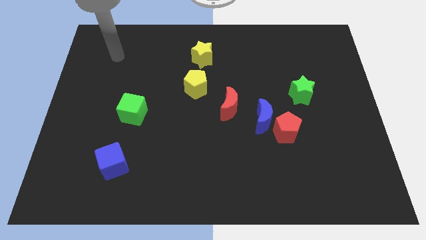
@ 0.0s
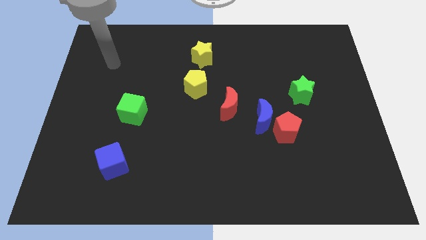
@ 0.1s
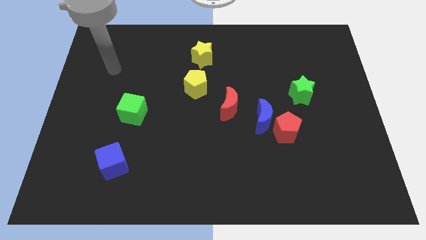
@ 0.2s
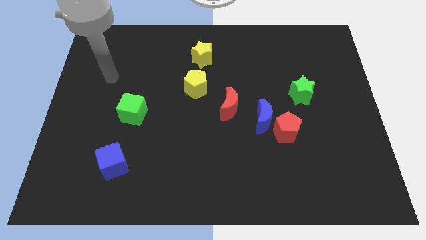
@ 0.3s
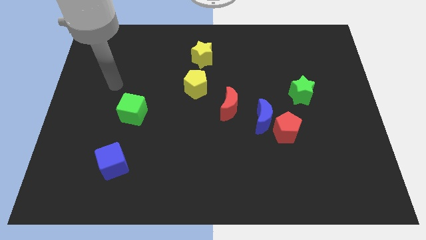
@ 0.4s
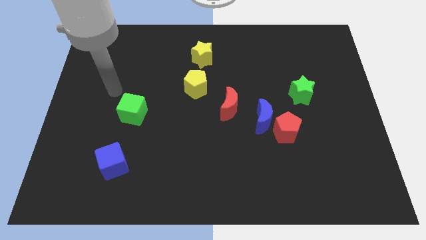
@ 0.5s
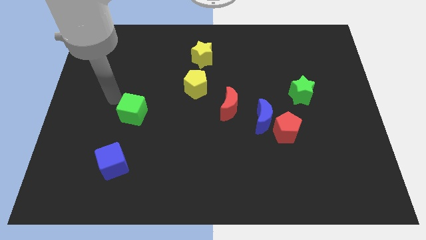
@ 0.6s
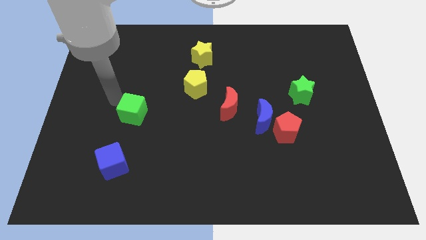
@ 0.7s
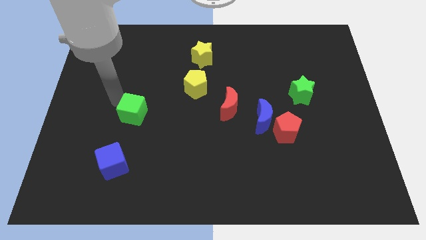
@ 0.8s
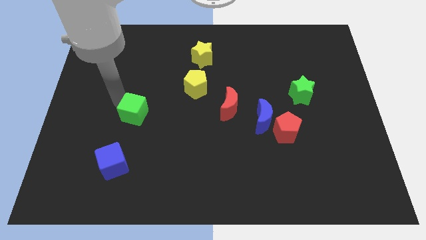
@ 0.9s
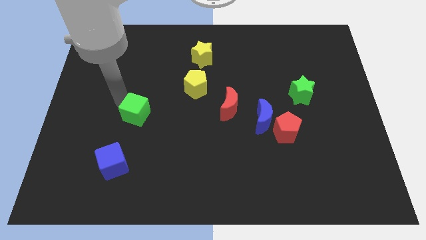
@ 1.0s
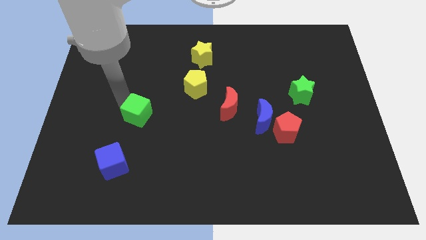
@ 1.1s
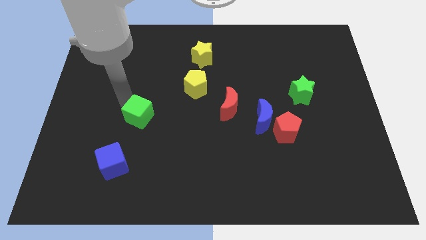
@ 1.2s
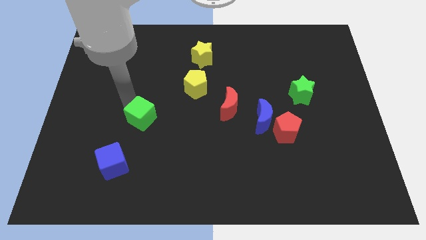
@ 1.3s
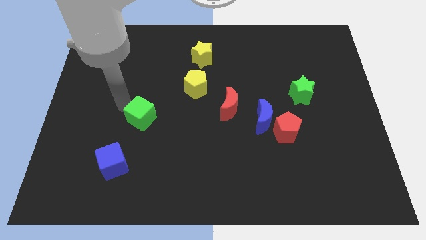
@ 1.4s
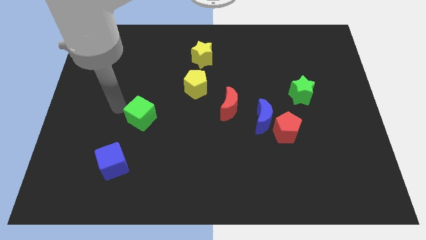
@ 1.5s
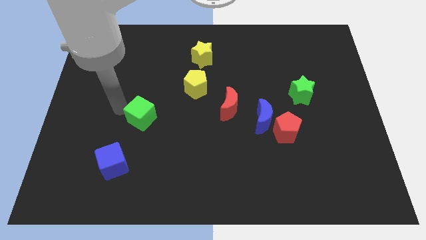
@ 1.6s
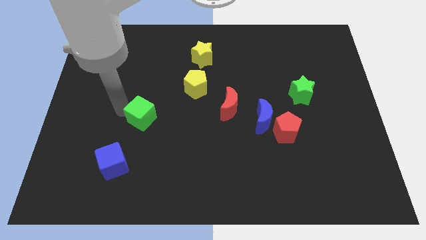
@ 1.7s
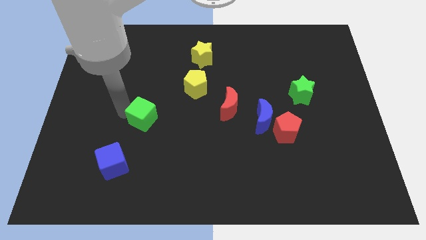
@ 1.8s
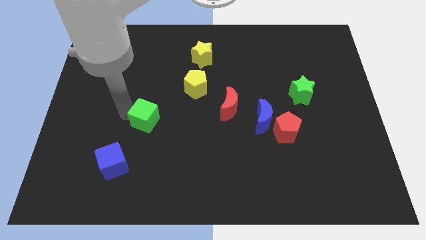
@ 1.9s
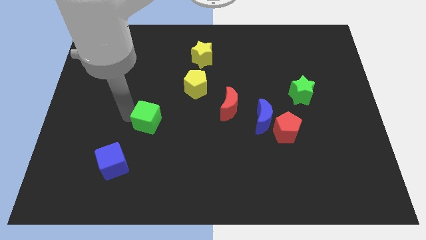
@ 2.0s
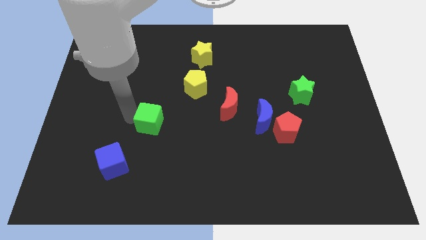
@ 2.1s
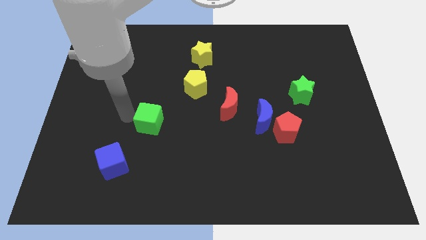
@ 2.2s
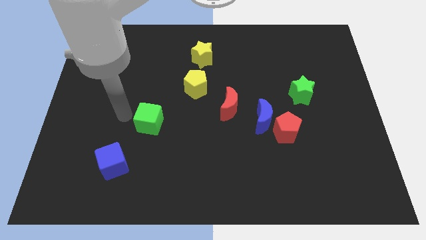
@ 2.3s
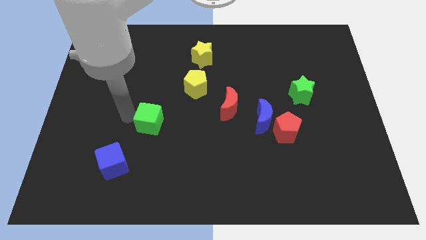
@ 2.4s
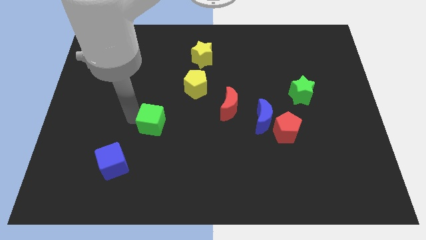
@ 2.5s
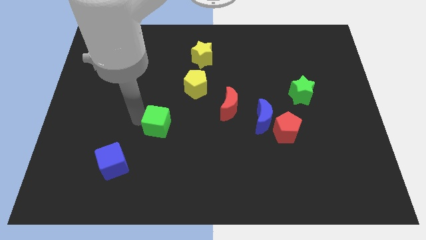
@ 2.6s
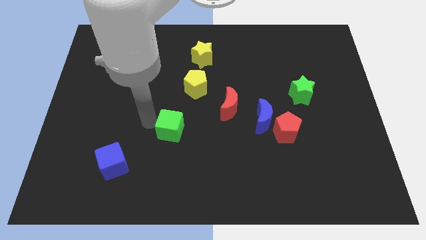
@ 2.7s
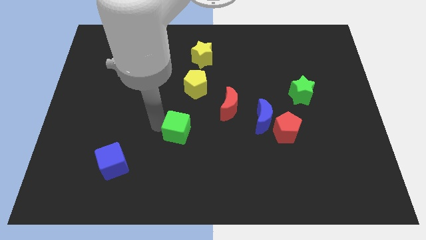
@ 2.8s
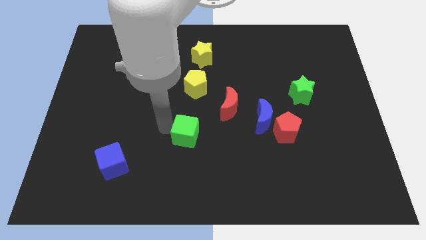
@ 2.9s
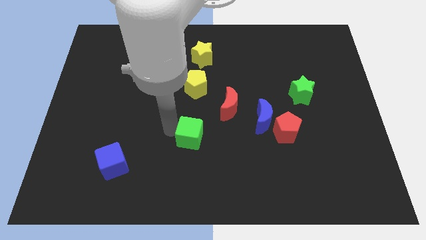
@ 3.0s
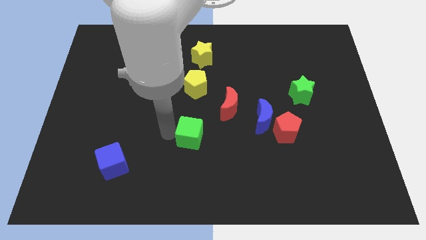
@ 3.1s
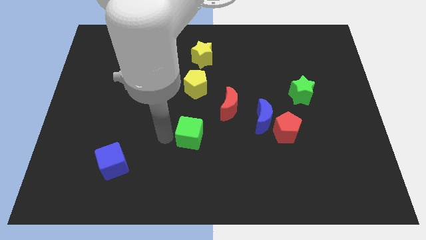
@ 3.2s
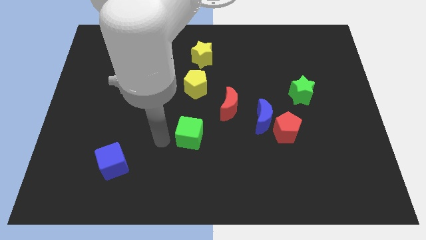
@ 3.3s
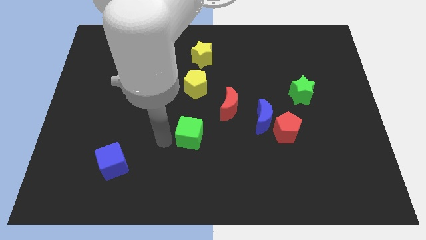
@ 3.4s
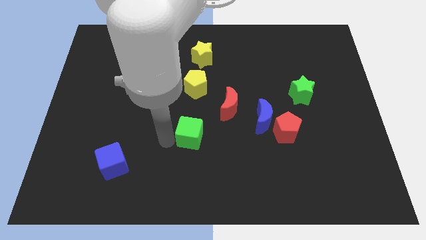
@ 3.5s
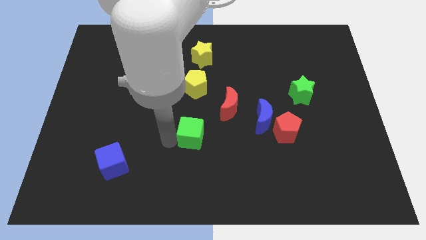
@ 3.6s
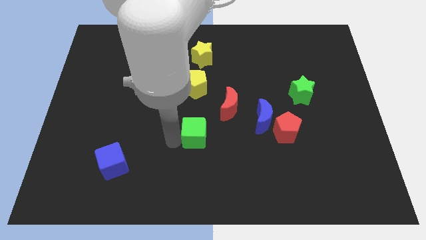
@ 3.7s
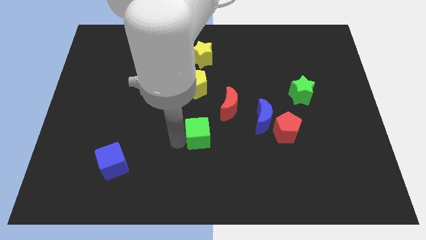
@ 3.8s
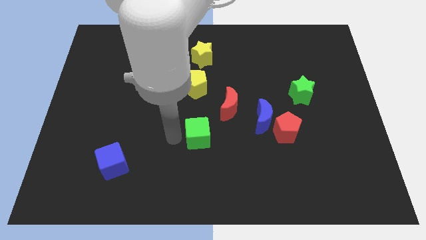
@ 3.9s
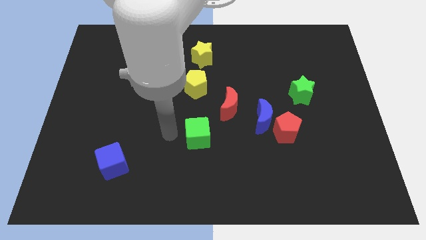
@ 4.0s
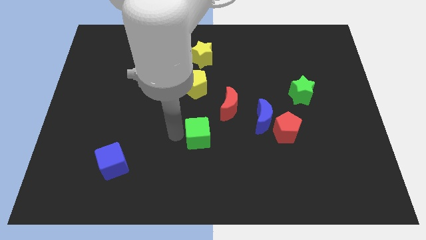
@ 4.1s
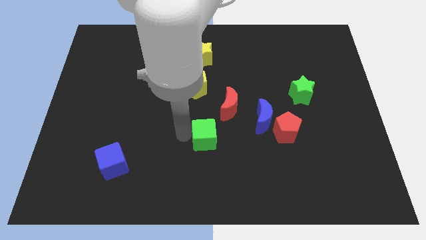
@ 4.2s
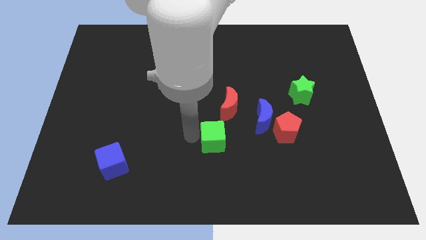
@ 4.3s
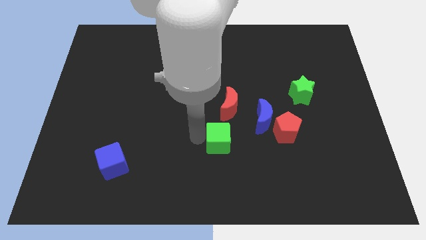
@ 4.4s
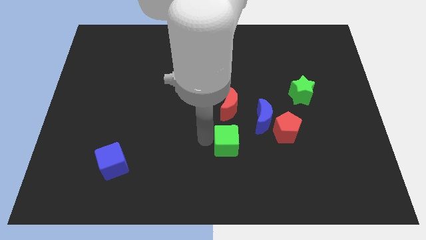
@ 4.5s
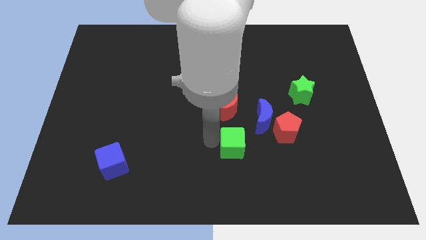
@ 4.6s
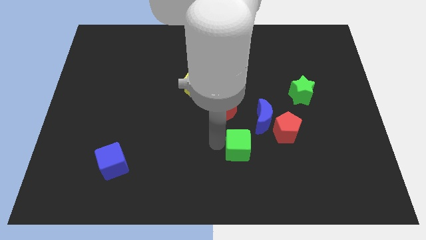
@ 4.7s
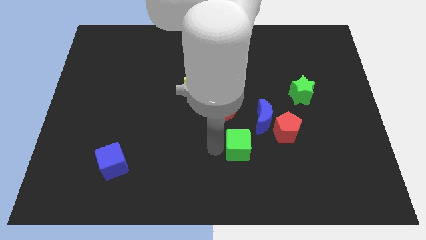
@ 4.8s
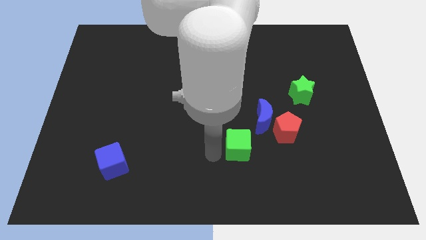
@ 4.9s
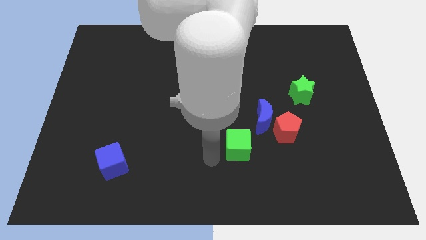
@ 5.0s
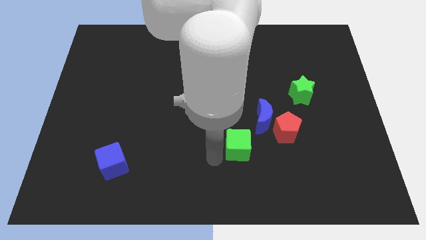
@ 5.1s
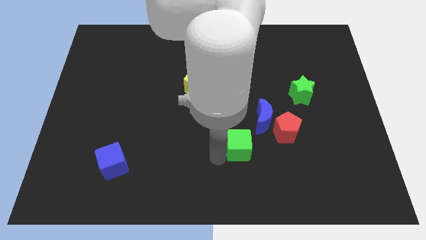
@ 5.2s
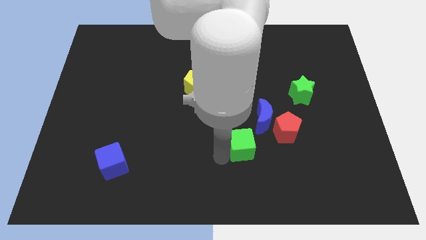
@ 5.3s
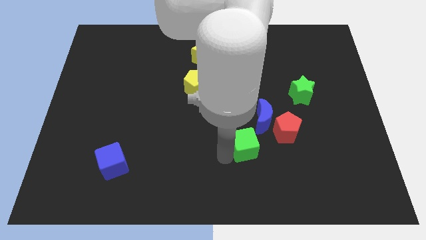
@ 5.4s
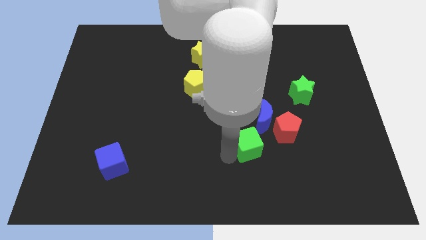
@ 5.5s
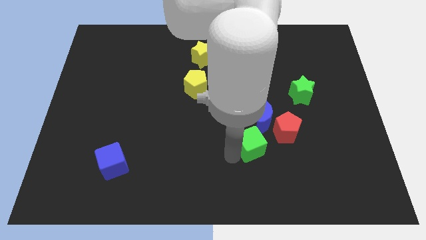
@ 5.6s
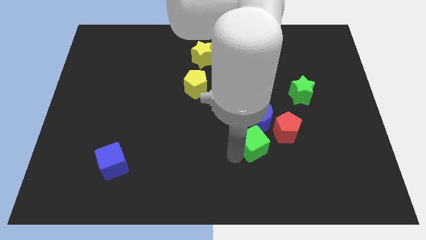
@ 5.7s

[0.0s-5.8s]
move the green cube to the bottom right of the red moon
